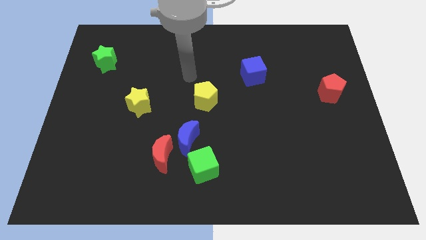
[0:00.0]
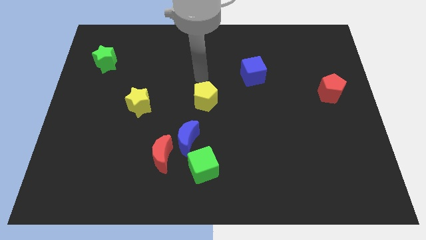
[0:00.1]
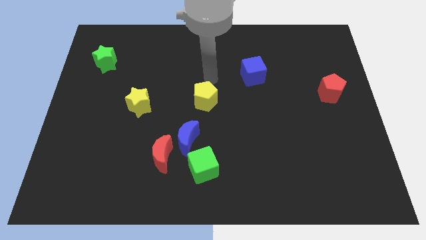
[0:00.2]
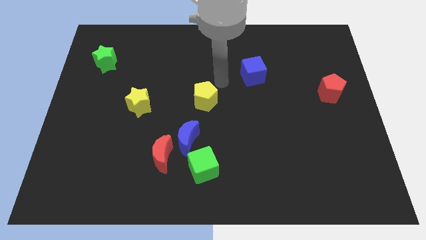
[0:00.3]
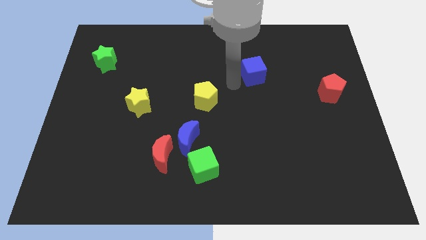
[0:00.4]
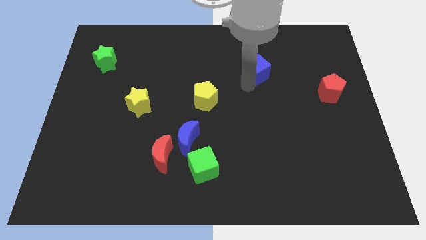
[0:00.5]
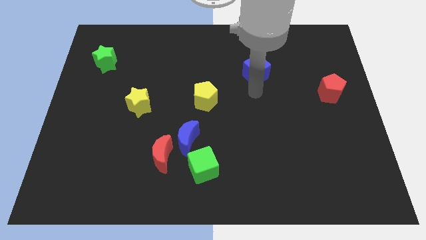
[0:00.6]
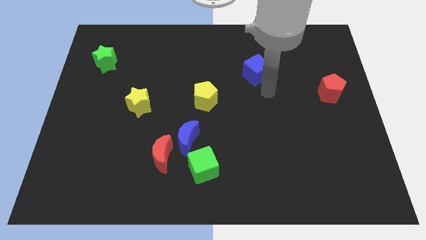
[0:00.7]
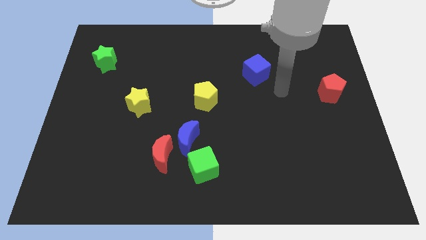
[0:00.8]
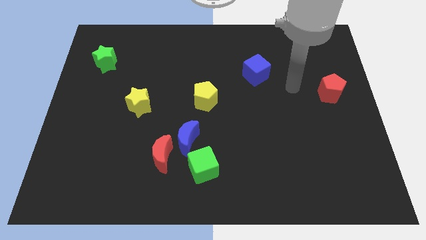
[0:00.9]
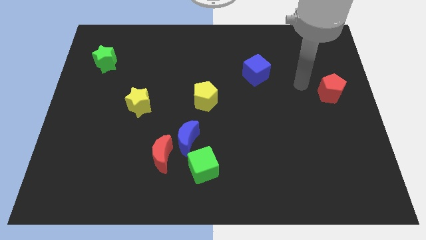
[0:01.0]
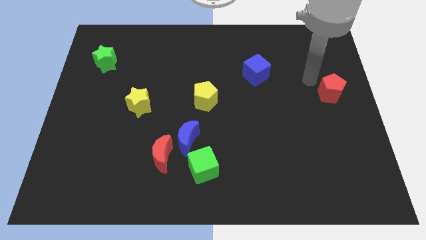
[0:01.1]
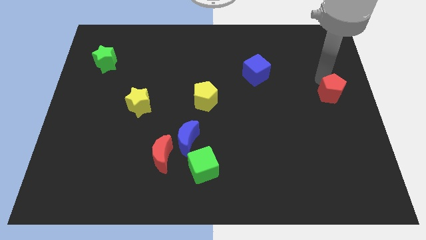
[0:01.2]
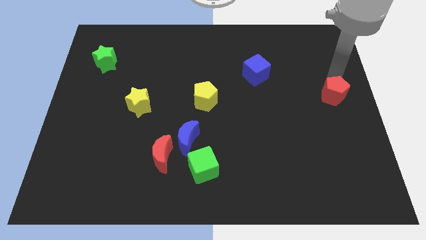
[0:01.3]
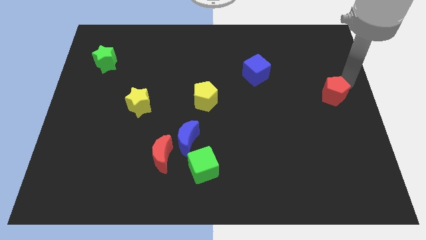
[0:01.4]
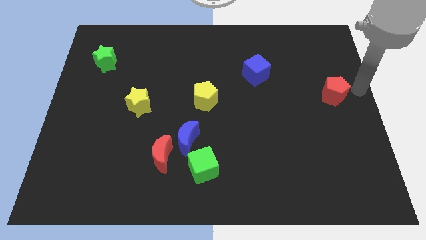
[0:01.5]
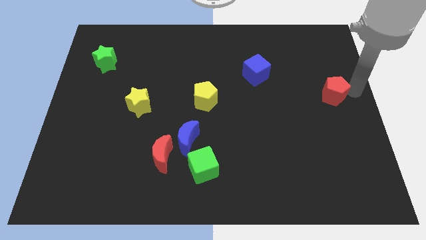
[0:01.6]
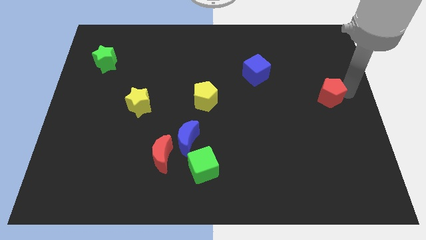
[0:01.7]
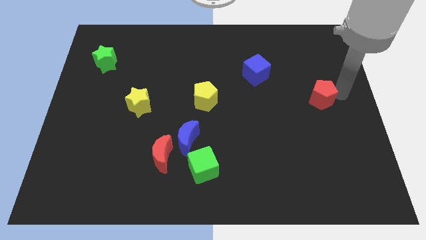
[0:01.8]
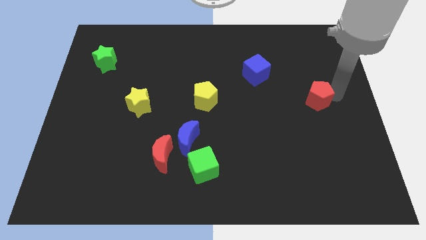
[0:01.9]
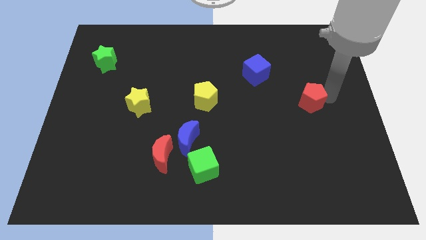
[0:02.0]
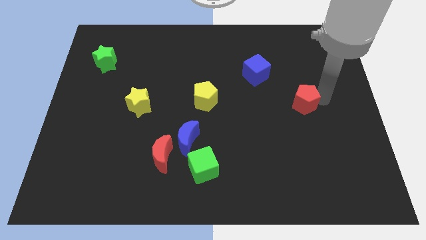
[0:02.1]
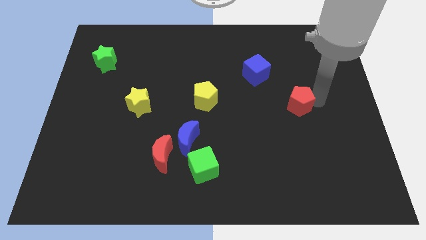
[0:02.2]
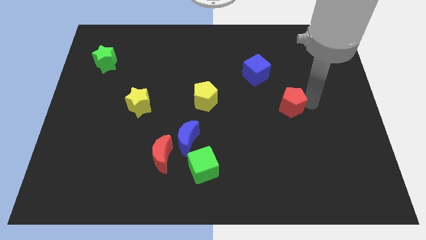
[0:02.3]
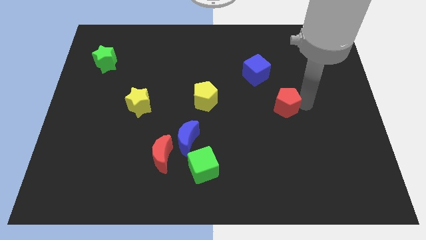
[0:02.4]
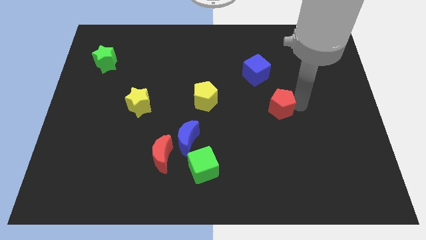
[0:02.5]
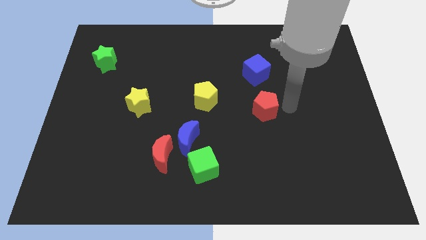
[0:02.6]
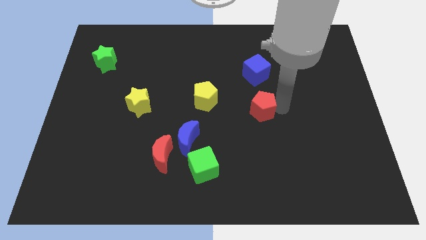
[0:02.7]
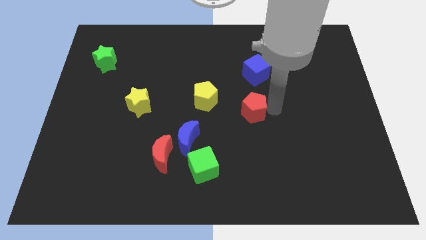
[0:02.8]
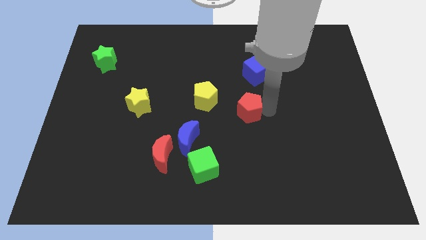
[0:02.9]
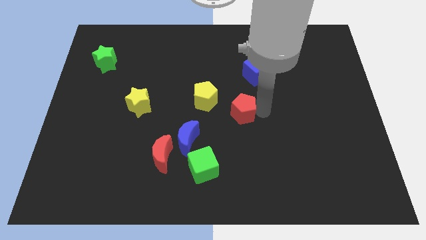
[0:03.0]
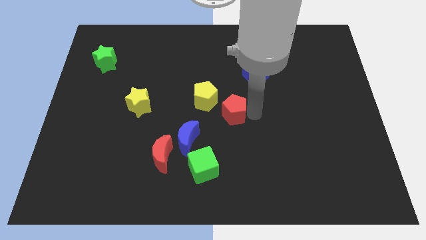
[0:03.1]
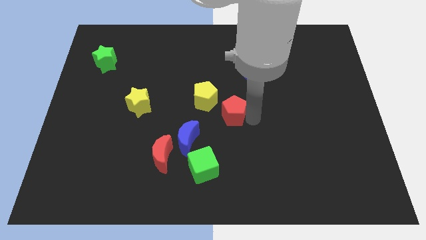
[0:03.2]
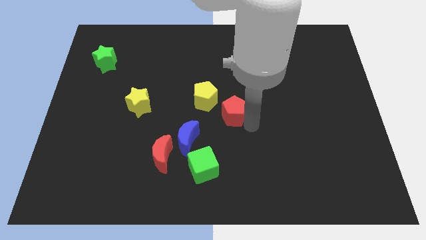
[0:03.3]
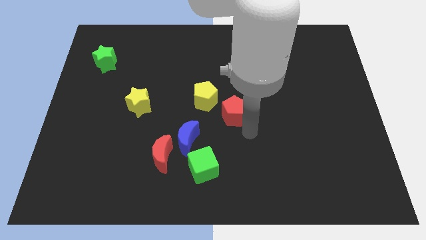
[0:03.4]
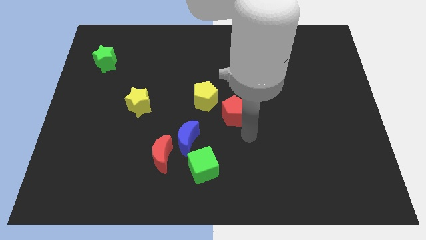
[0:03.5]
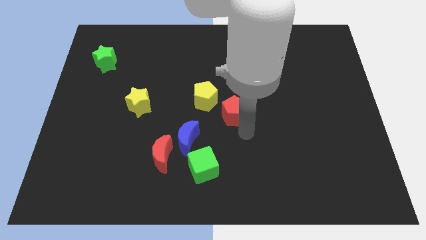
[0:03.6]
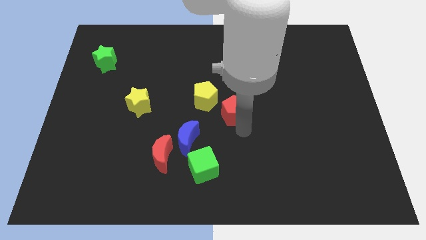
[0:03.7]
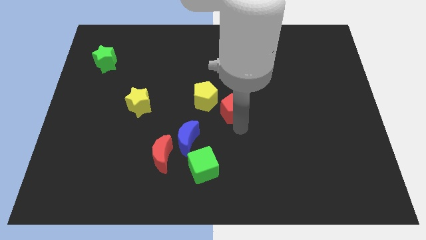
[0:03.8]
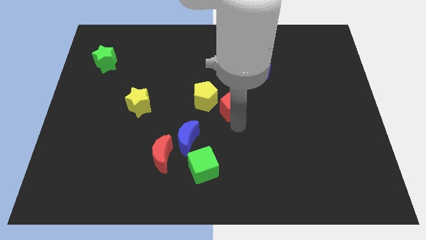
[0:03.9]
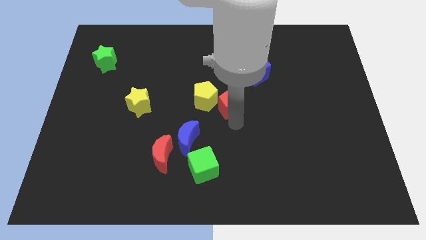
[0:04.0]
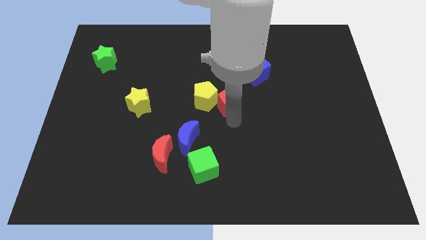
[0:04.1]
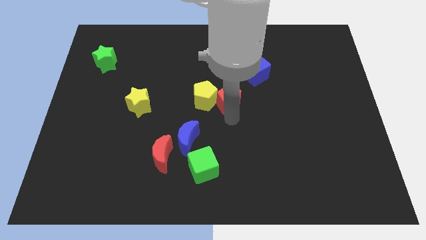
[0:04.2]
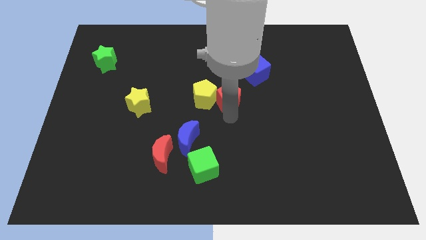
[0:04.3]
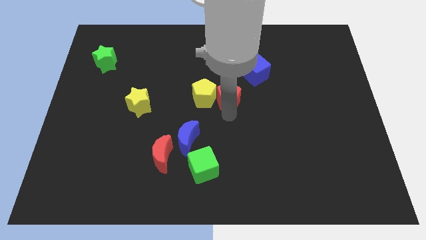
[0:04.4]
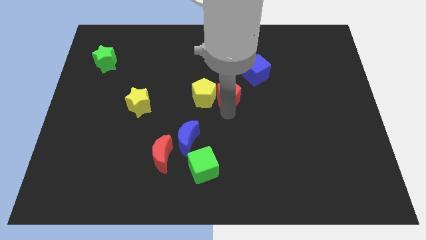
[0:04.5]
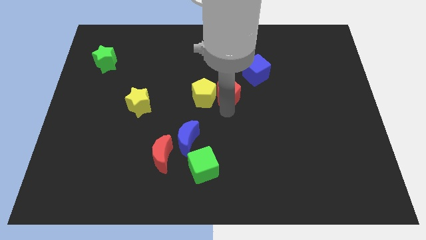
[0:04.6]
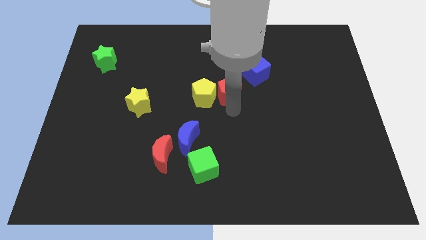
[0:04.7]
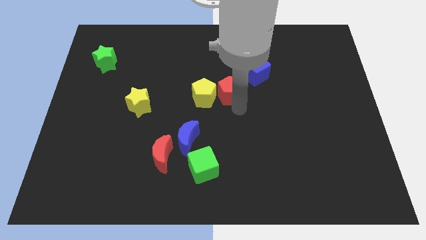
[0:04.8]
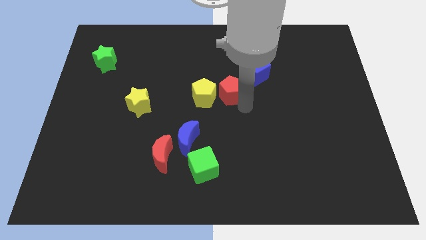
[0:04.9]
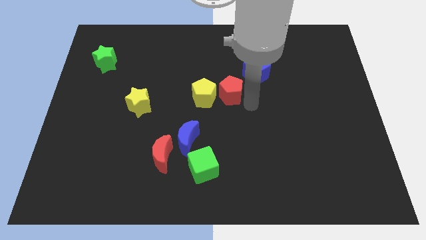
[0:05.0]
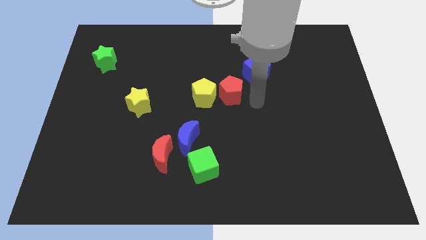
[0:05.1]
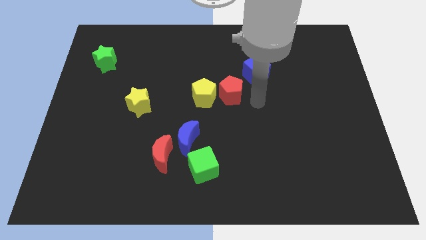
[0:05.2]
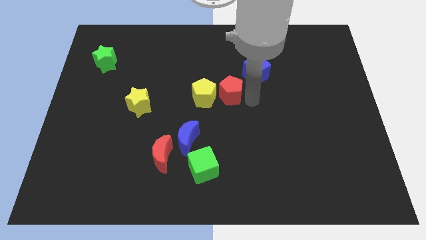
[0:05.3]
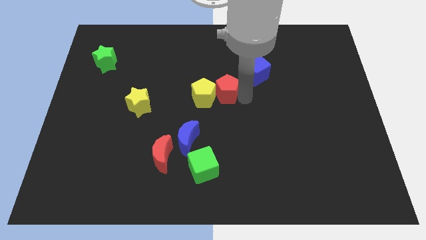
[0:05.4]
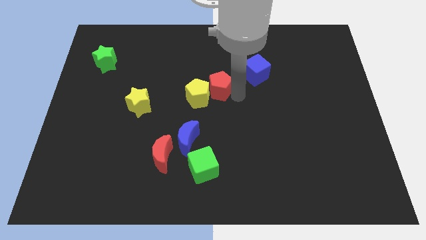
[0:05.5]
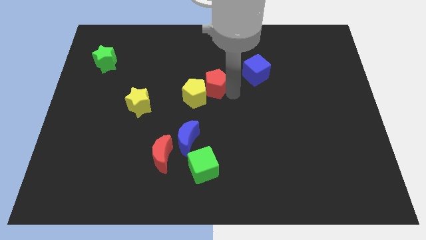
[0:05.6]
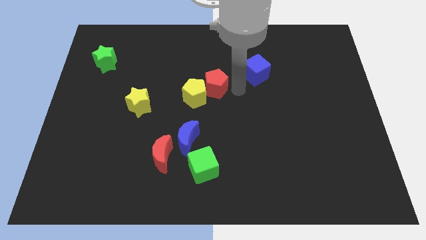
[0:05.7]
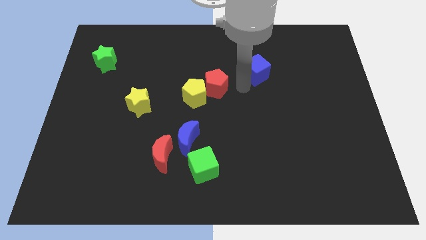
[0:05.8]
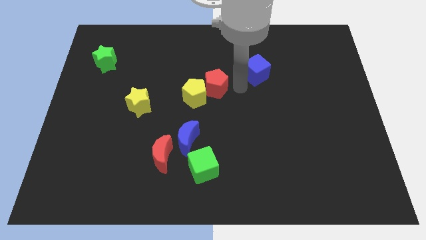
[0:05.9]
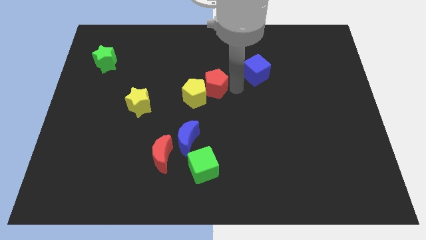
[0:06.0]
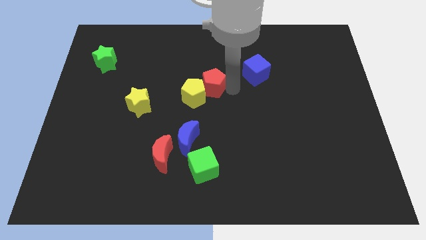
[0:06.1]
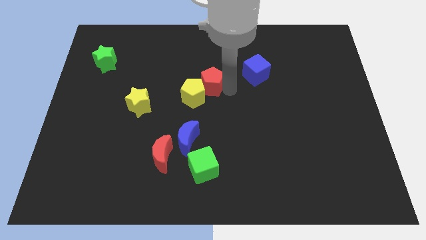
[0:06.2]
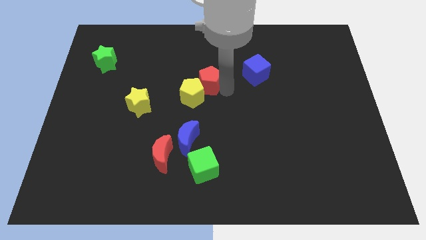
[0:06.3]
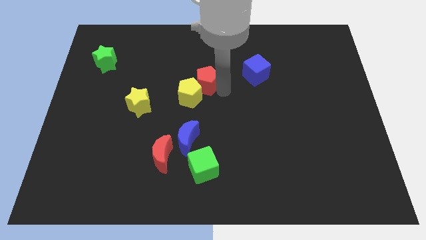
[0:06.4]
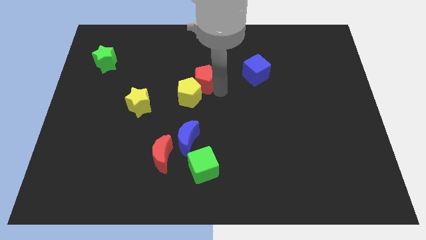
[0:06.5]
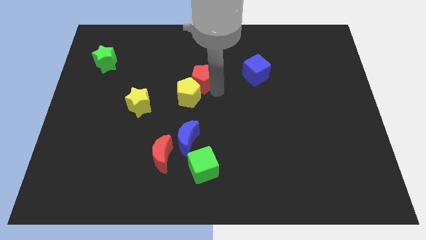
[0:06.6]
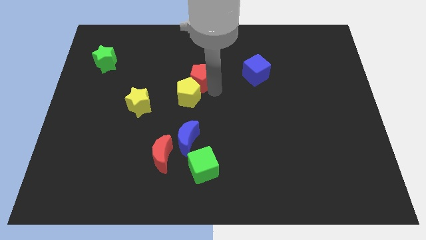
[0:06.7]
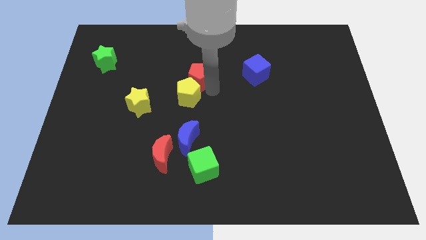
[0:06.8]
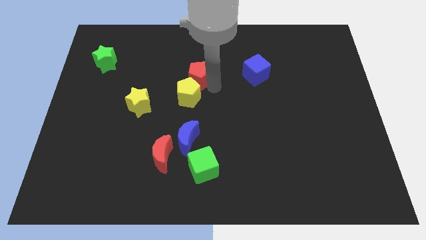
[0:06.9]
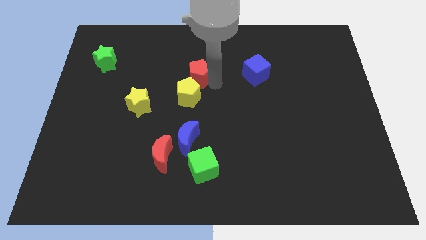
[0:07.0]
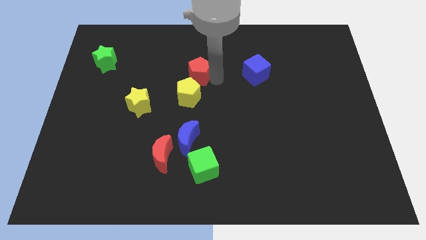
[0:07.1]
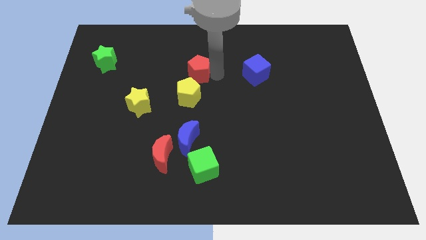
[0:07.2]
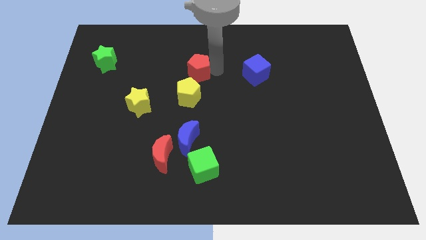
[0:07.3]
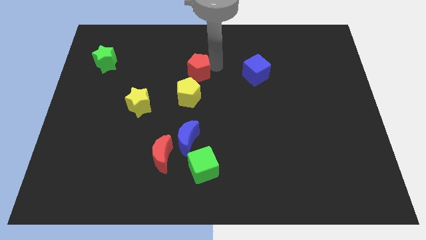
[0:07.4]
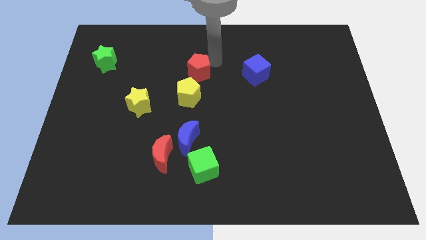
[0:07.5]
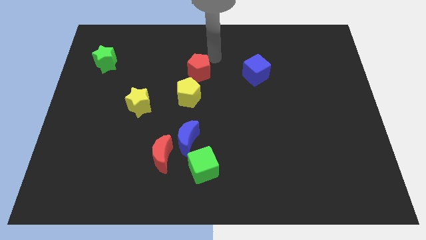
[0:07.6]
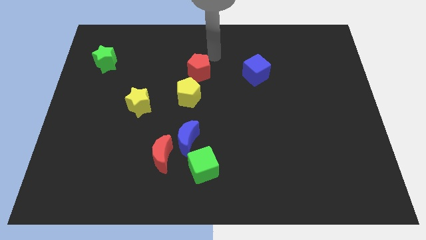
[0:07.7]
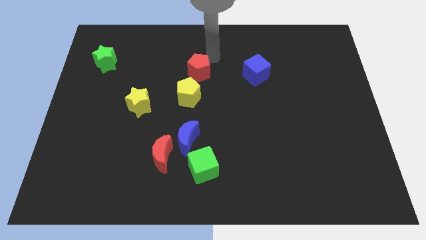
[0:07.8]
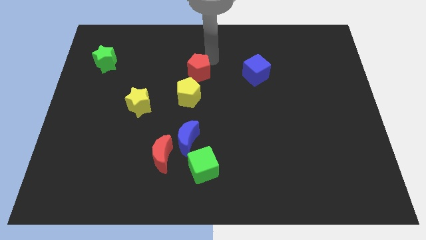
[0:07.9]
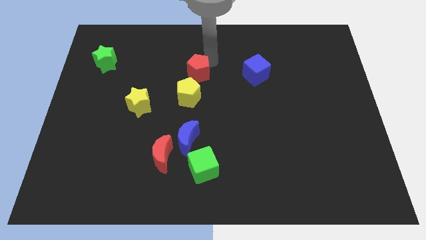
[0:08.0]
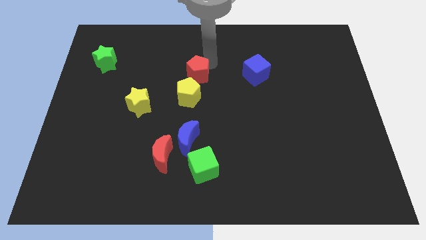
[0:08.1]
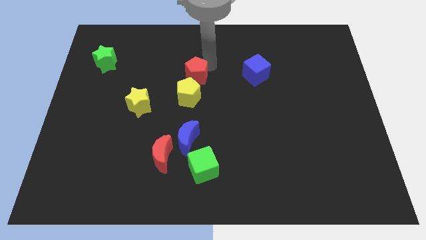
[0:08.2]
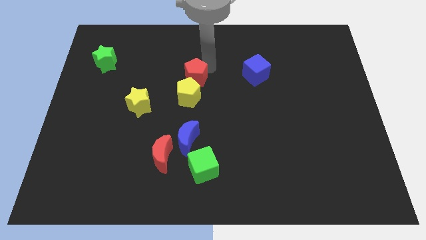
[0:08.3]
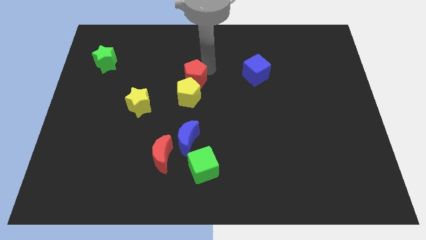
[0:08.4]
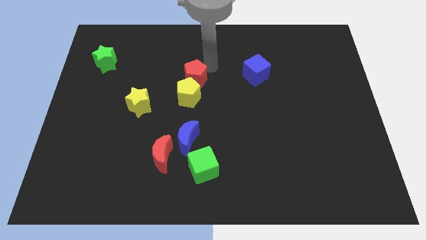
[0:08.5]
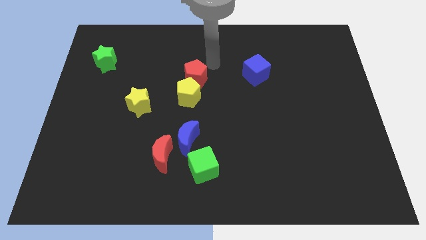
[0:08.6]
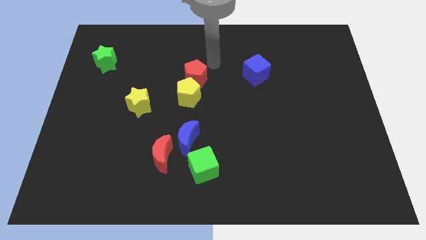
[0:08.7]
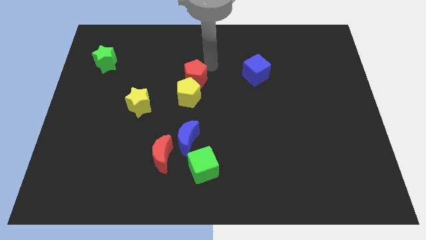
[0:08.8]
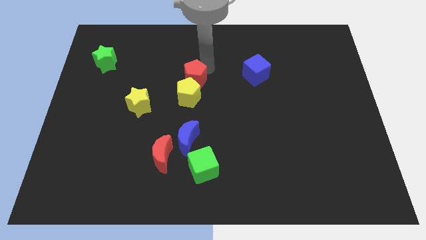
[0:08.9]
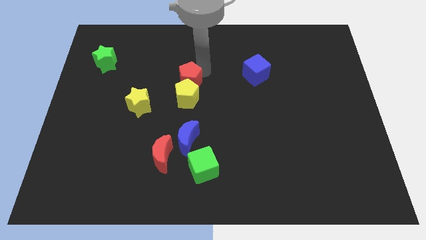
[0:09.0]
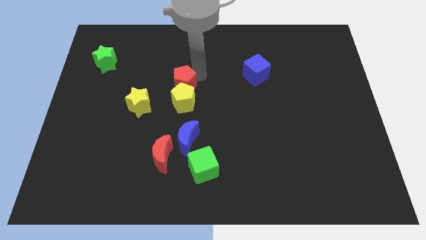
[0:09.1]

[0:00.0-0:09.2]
put the red pentagon to the top right of the yellow star
